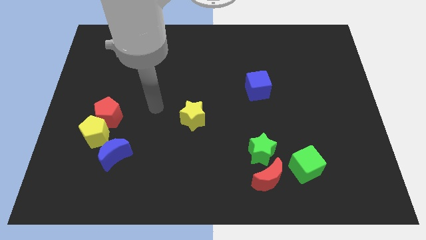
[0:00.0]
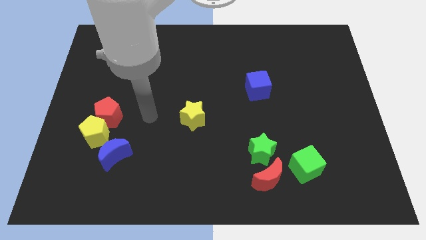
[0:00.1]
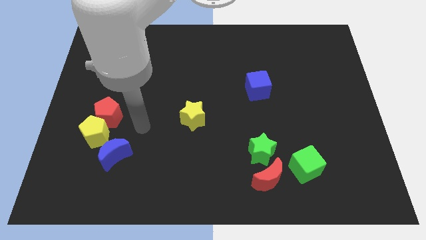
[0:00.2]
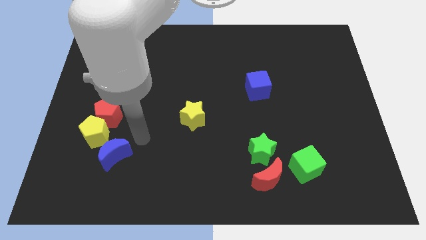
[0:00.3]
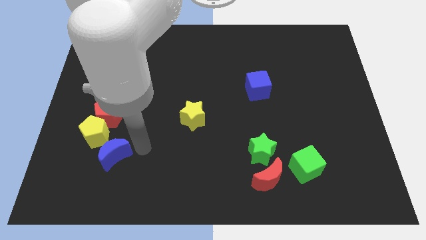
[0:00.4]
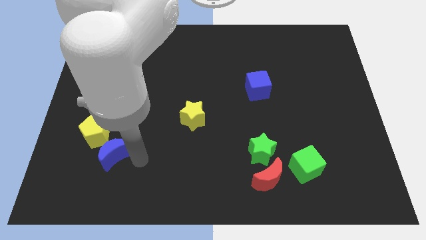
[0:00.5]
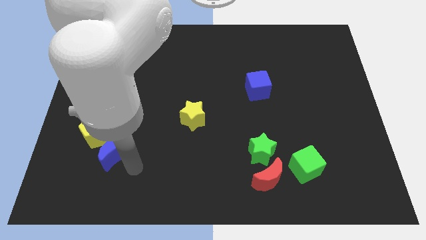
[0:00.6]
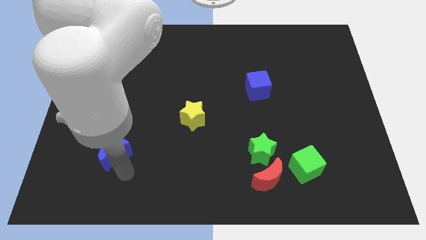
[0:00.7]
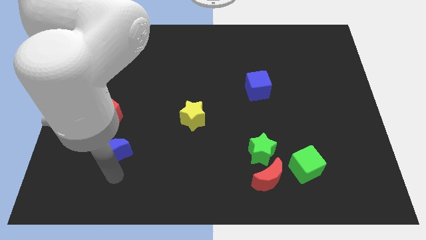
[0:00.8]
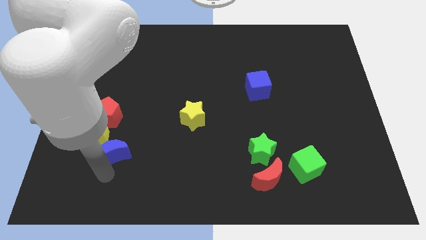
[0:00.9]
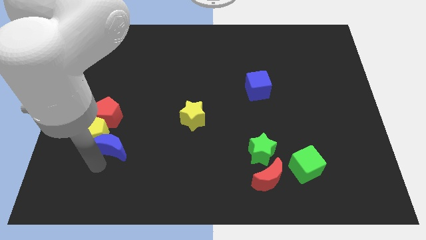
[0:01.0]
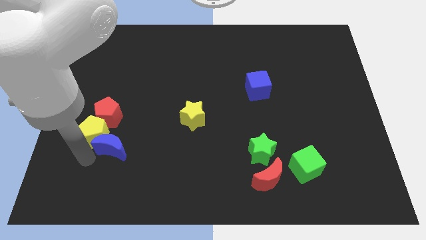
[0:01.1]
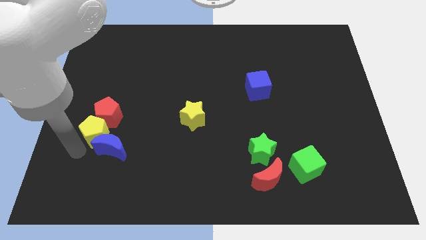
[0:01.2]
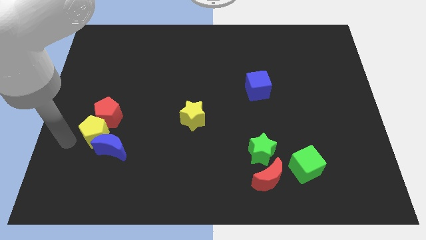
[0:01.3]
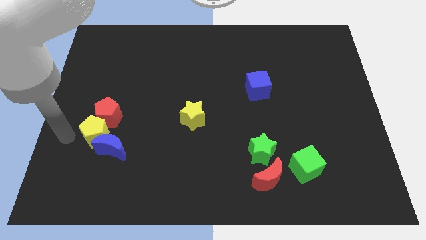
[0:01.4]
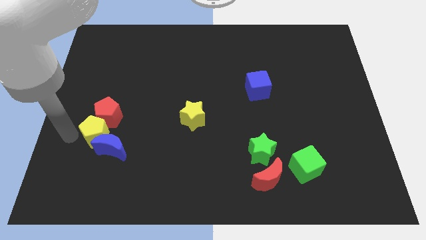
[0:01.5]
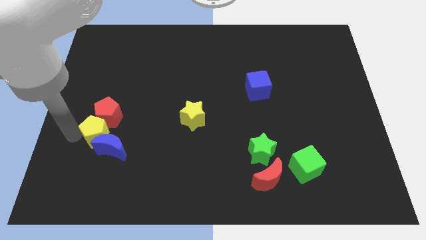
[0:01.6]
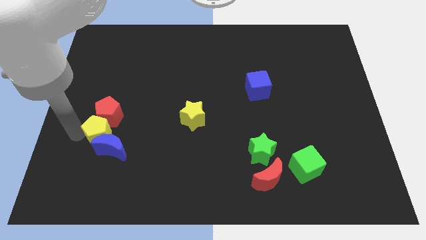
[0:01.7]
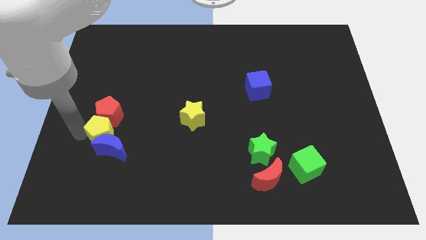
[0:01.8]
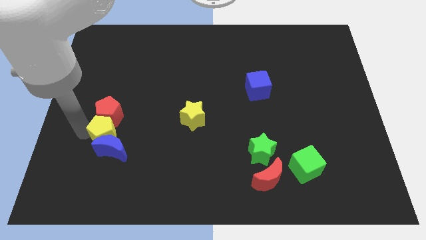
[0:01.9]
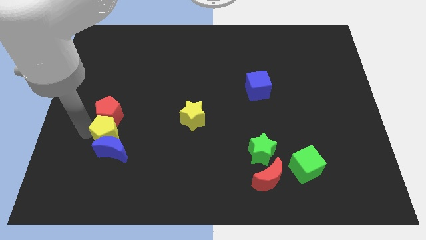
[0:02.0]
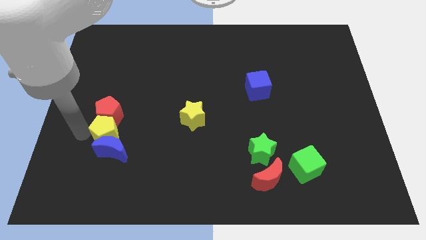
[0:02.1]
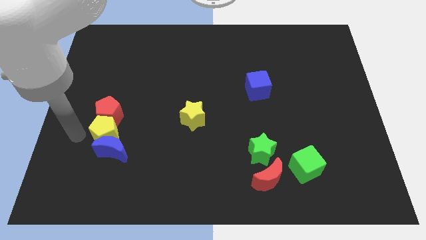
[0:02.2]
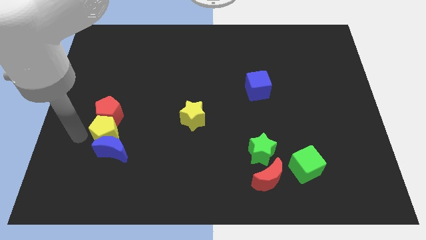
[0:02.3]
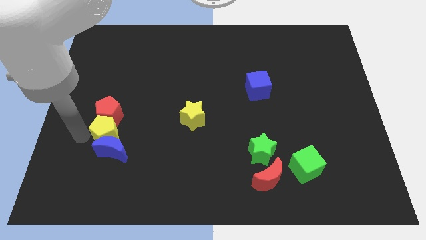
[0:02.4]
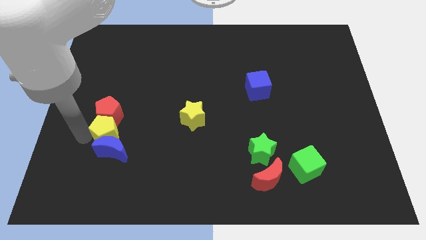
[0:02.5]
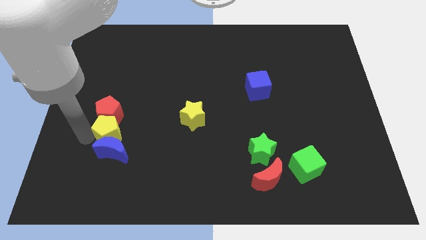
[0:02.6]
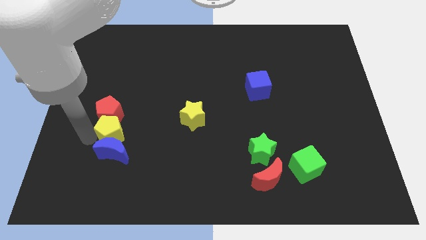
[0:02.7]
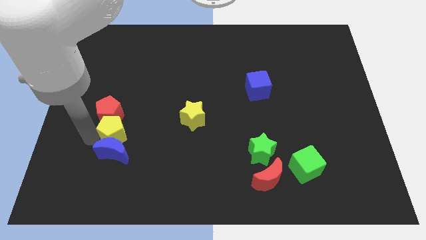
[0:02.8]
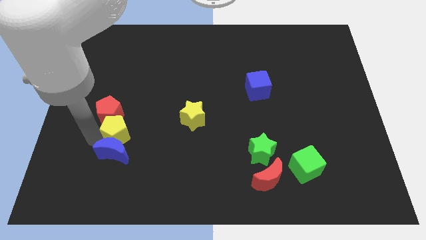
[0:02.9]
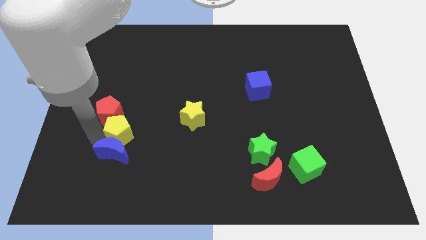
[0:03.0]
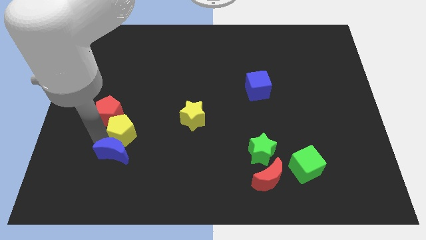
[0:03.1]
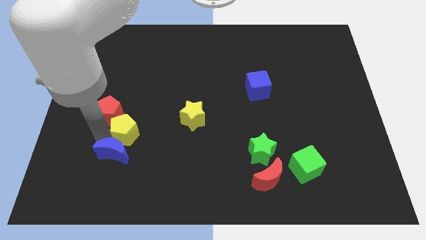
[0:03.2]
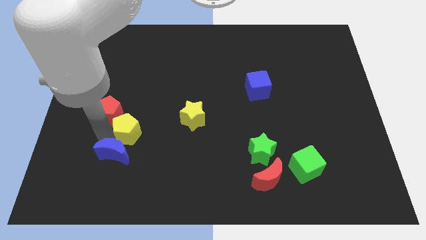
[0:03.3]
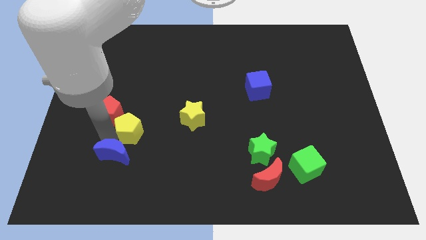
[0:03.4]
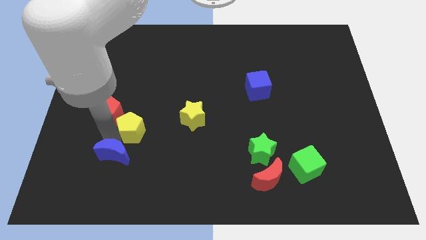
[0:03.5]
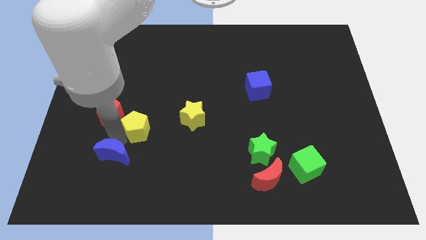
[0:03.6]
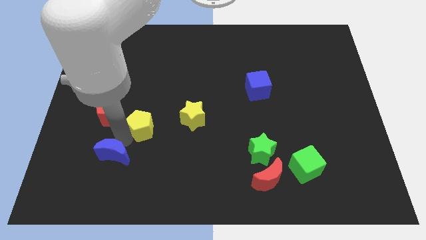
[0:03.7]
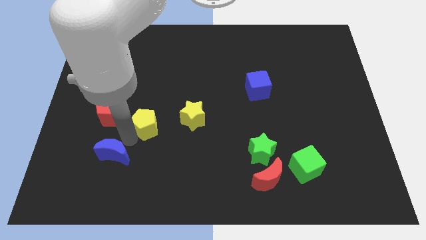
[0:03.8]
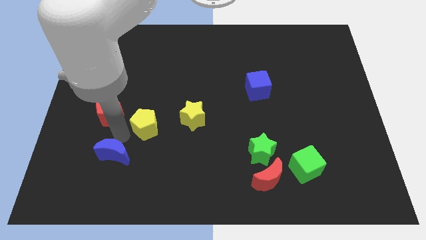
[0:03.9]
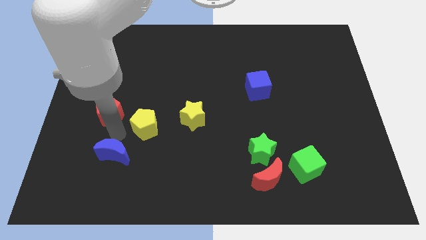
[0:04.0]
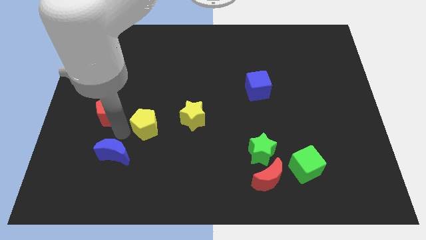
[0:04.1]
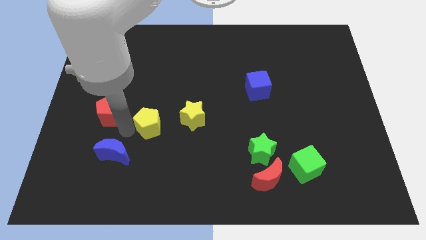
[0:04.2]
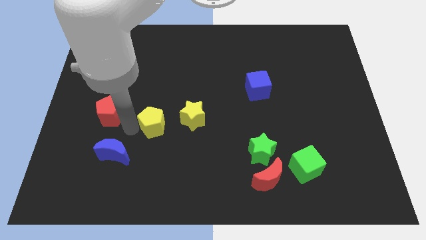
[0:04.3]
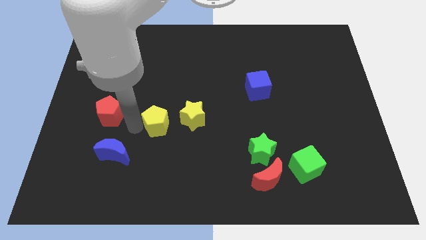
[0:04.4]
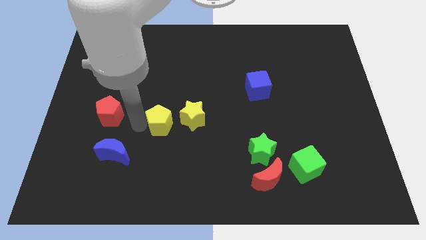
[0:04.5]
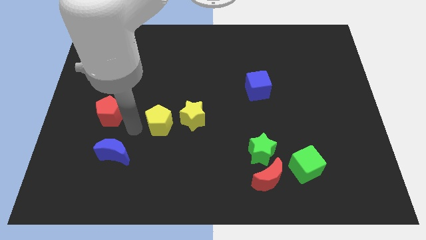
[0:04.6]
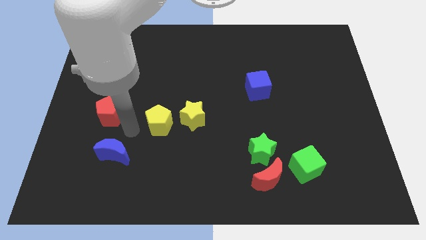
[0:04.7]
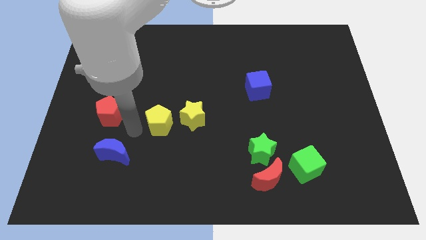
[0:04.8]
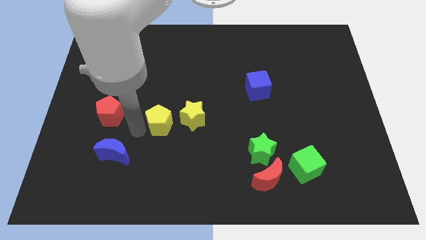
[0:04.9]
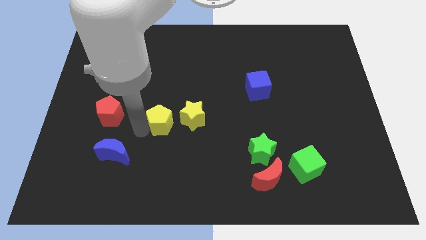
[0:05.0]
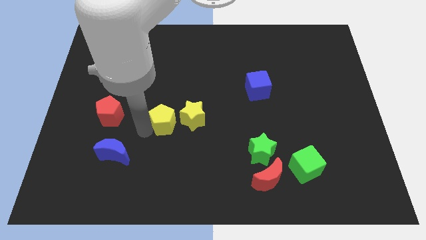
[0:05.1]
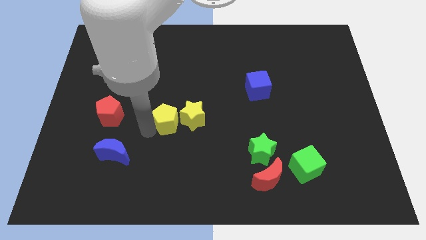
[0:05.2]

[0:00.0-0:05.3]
put the yellow pentagon close to the yellow star

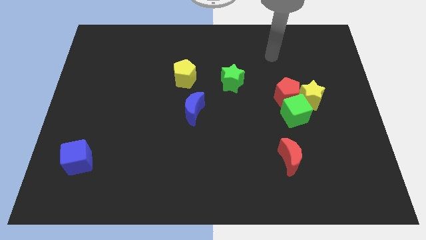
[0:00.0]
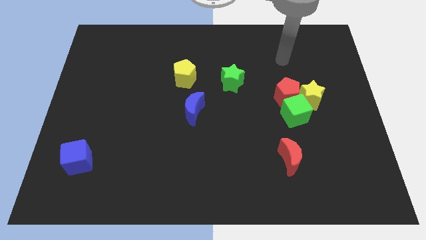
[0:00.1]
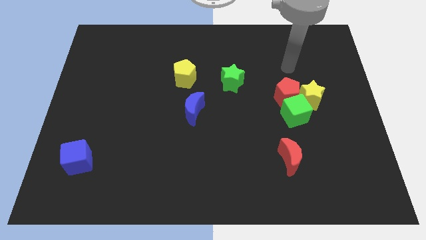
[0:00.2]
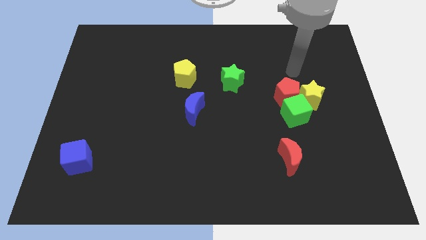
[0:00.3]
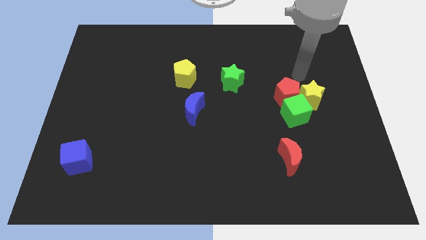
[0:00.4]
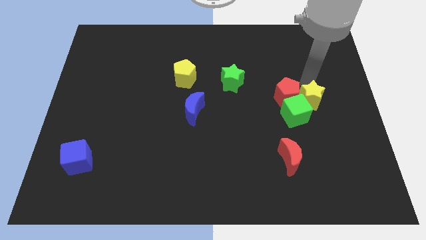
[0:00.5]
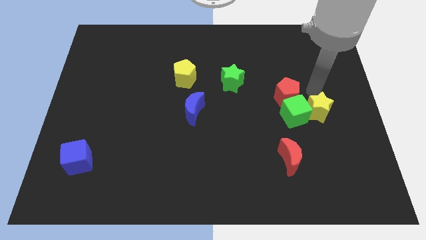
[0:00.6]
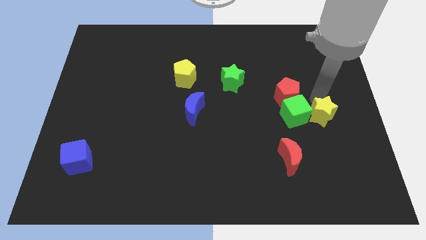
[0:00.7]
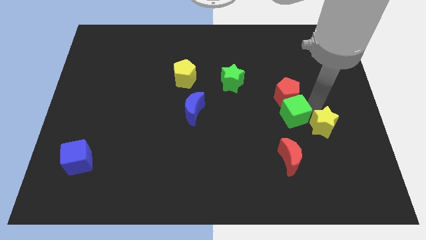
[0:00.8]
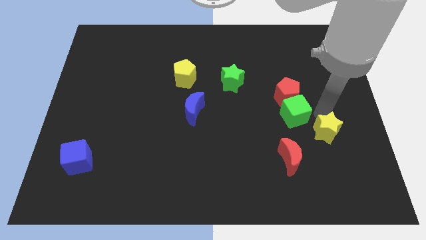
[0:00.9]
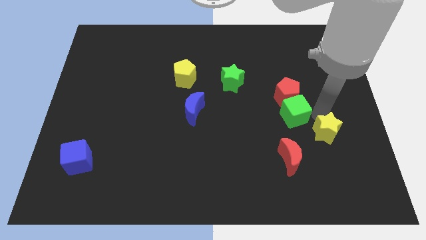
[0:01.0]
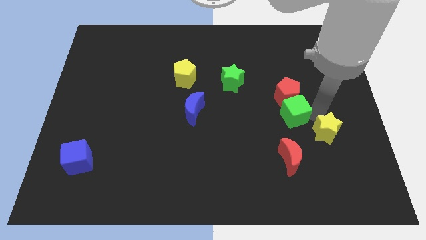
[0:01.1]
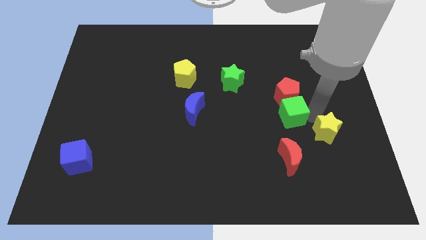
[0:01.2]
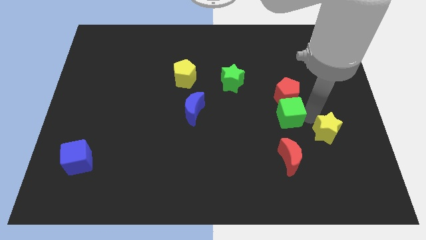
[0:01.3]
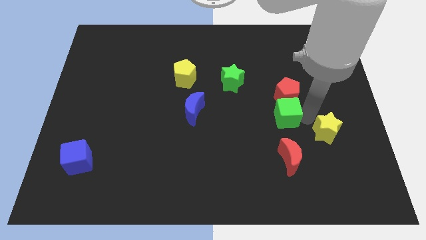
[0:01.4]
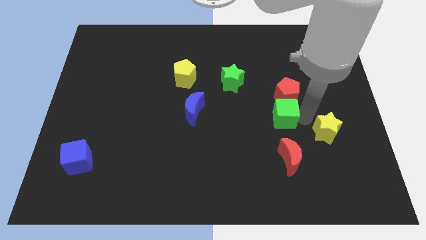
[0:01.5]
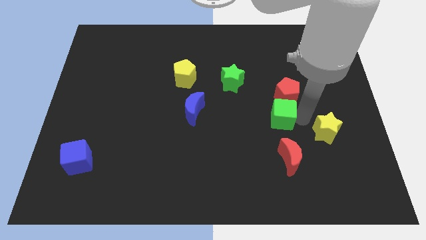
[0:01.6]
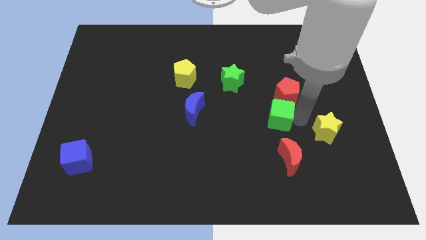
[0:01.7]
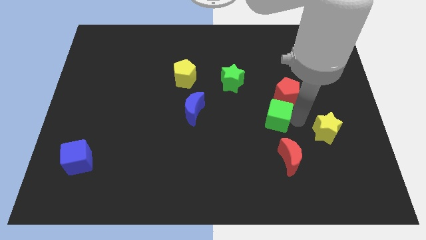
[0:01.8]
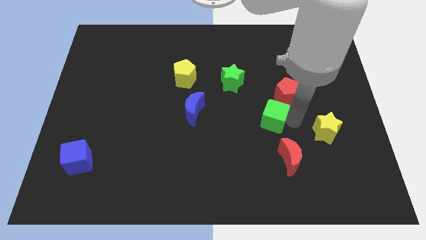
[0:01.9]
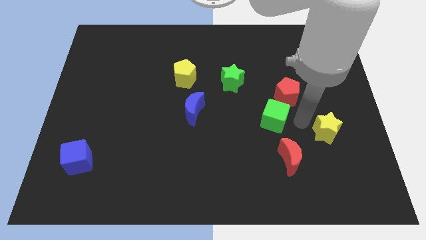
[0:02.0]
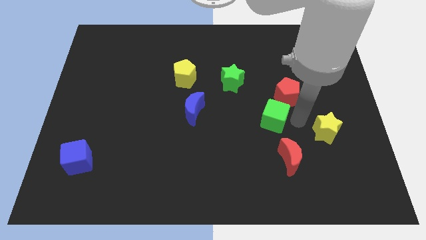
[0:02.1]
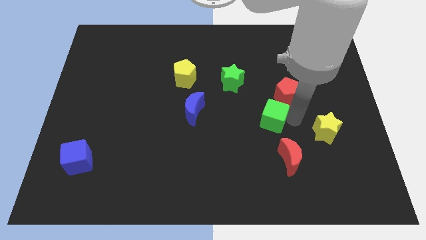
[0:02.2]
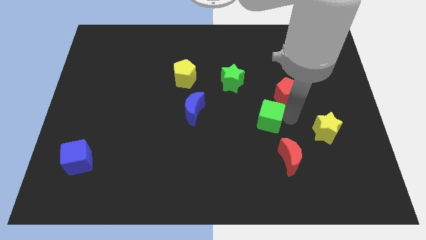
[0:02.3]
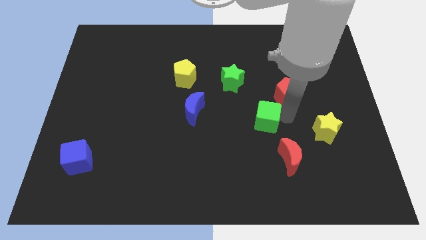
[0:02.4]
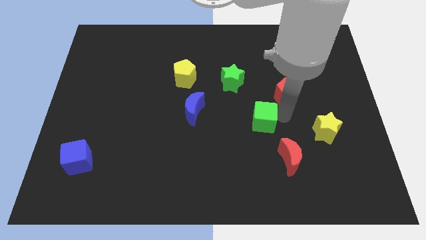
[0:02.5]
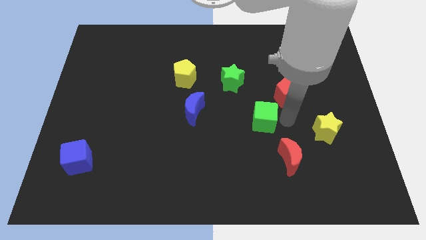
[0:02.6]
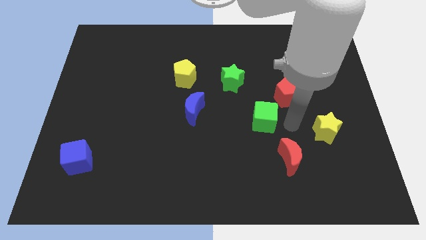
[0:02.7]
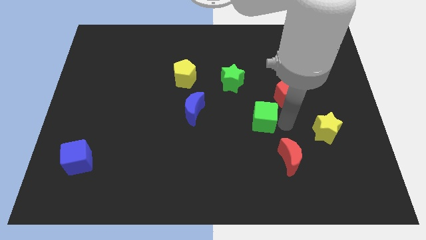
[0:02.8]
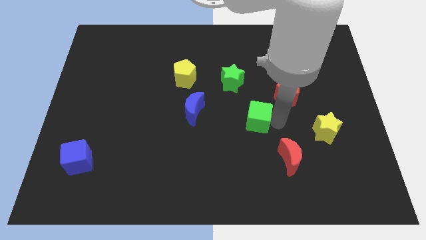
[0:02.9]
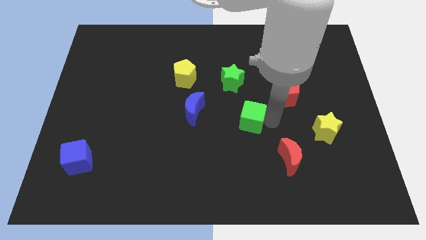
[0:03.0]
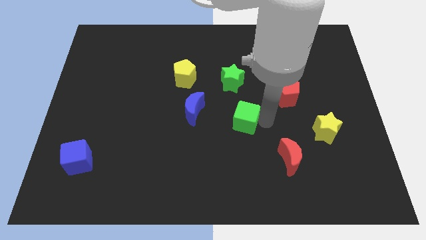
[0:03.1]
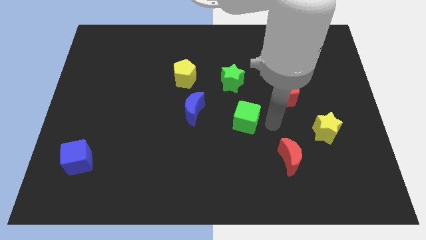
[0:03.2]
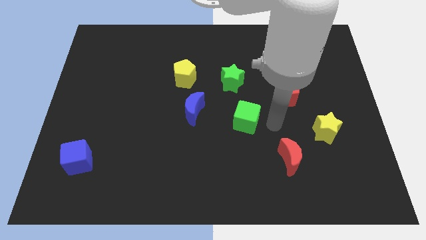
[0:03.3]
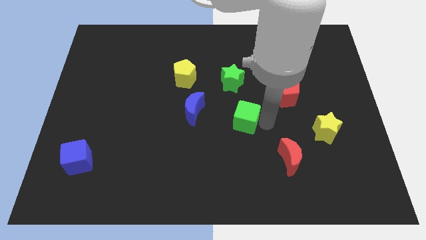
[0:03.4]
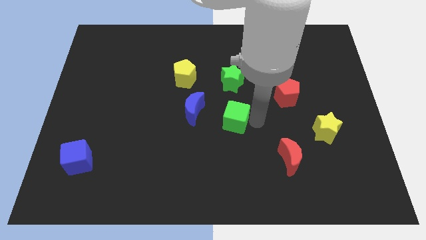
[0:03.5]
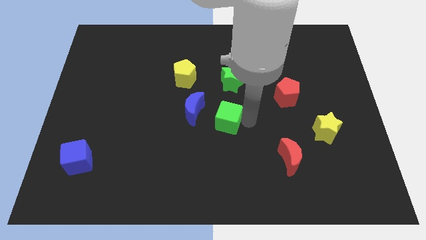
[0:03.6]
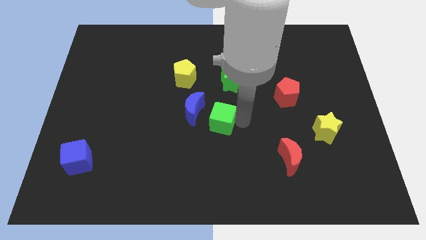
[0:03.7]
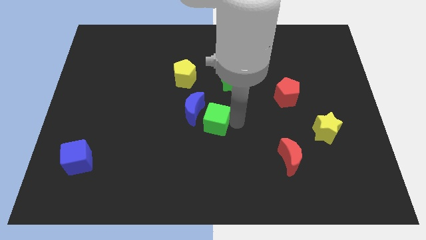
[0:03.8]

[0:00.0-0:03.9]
slide the green cube close to the blue moon
